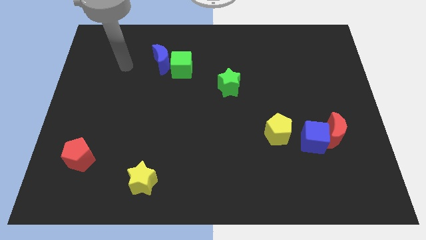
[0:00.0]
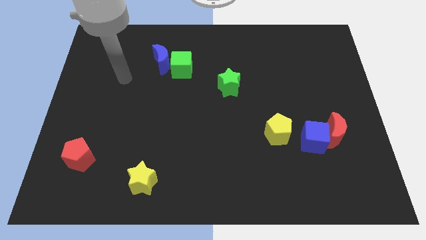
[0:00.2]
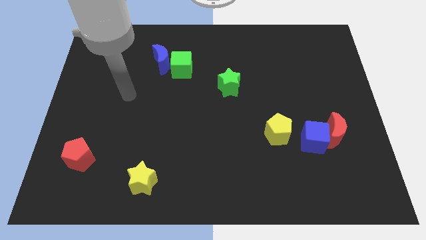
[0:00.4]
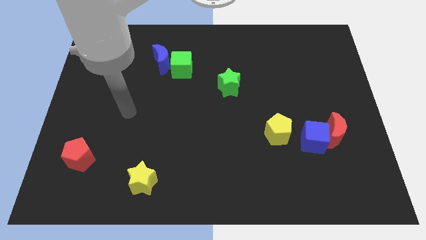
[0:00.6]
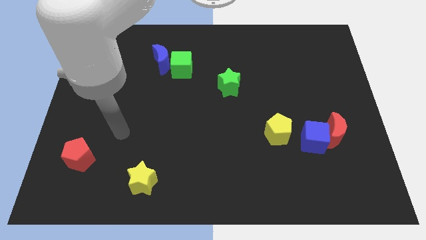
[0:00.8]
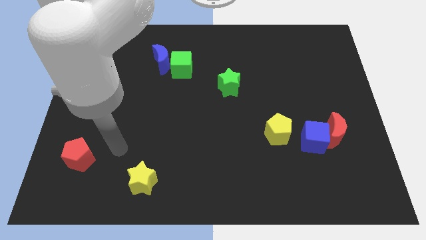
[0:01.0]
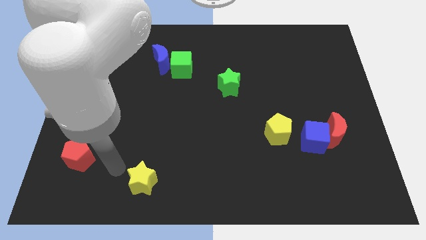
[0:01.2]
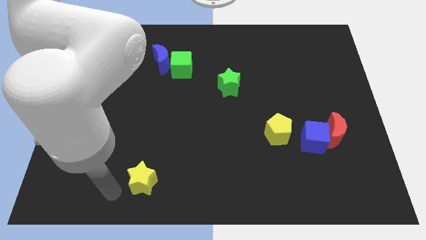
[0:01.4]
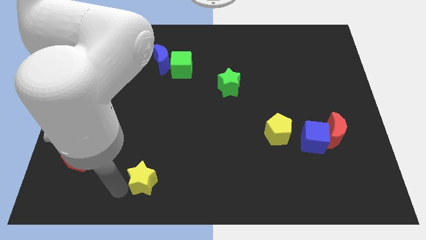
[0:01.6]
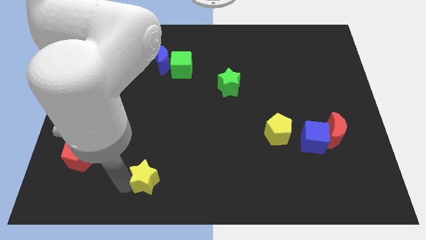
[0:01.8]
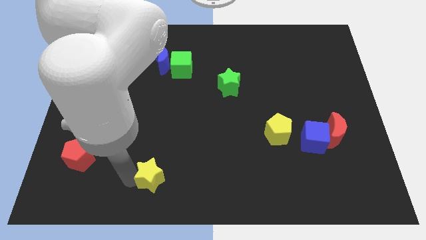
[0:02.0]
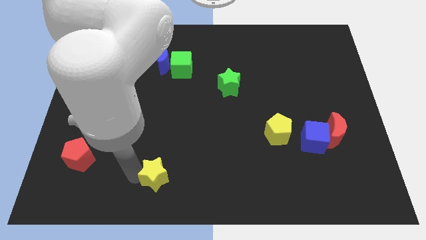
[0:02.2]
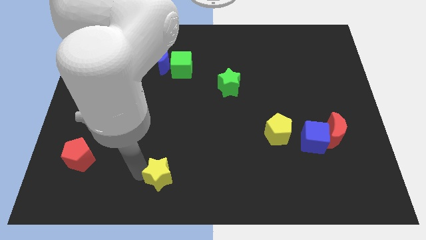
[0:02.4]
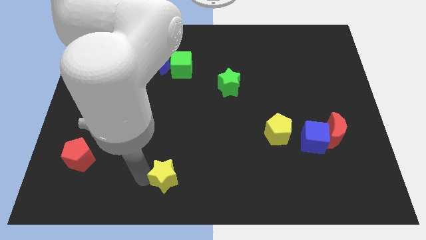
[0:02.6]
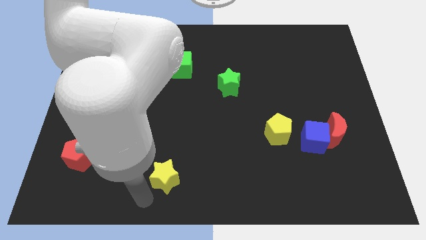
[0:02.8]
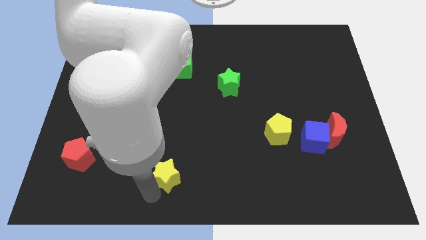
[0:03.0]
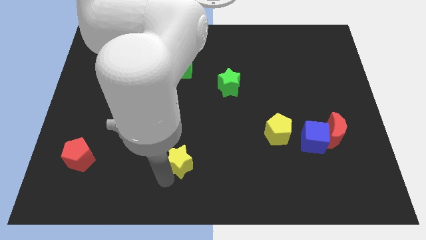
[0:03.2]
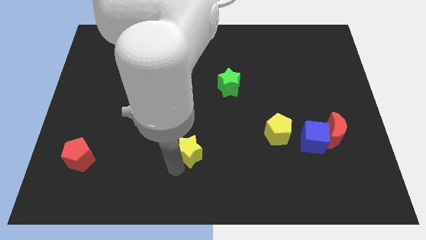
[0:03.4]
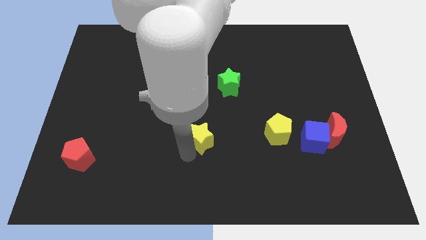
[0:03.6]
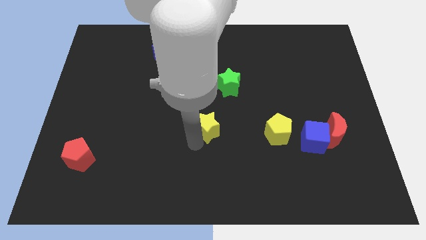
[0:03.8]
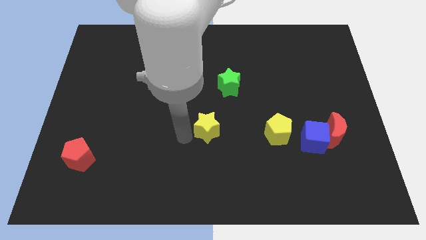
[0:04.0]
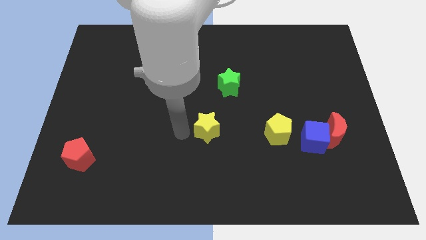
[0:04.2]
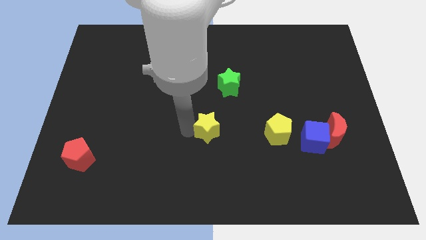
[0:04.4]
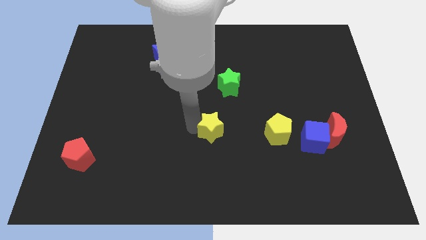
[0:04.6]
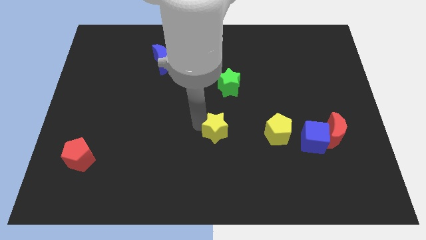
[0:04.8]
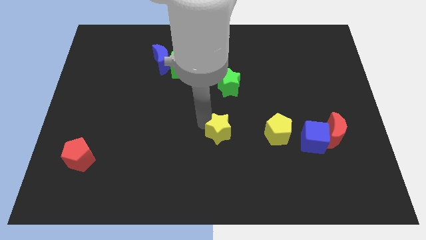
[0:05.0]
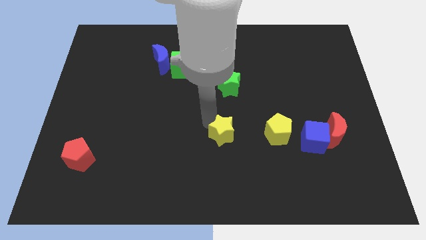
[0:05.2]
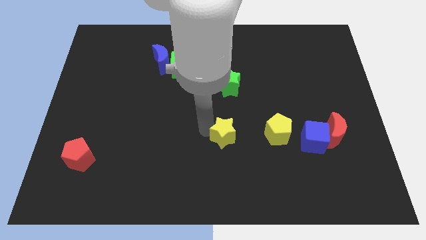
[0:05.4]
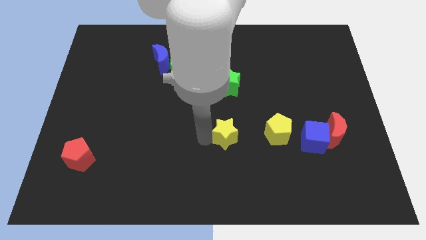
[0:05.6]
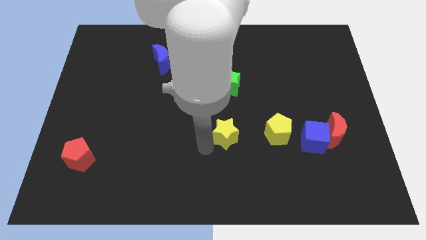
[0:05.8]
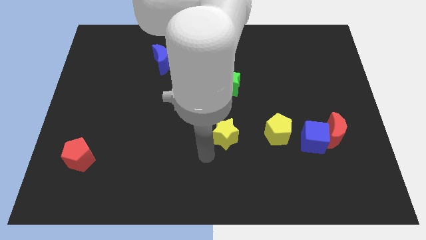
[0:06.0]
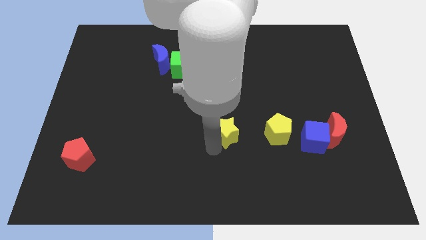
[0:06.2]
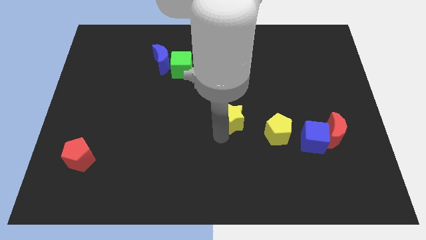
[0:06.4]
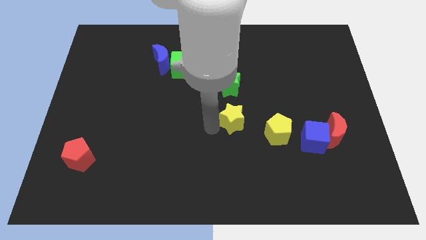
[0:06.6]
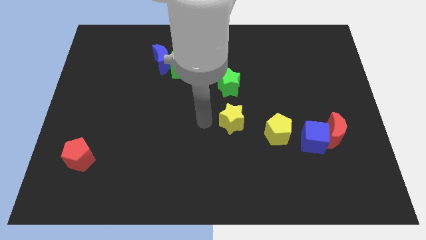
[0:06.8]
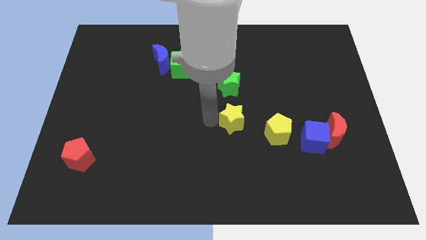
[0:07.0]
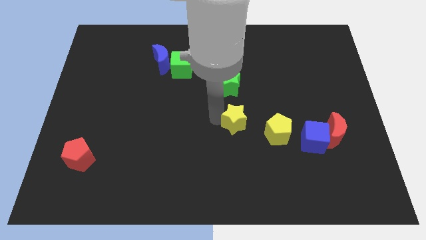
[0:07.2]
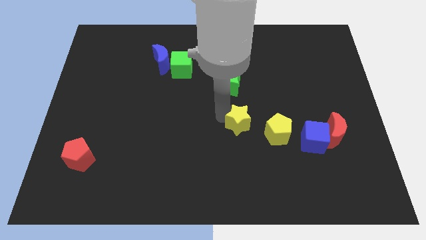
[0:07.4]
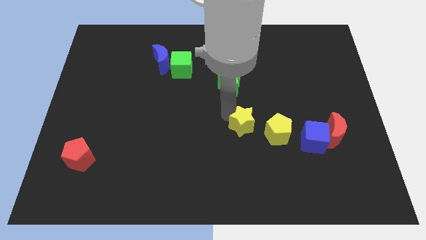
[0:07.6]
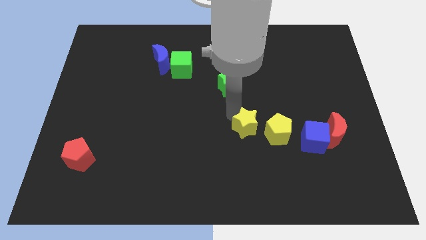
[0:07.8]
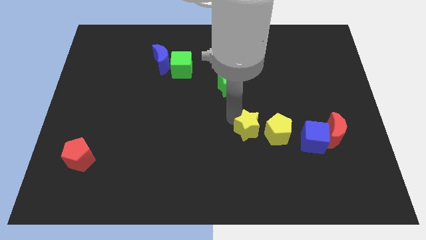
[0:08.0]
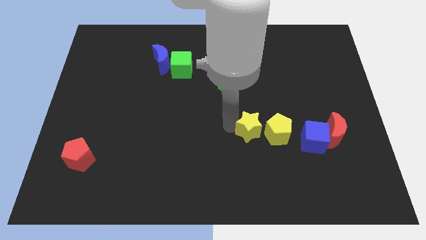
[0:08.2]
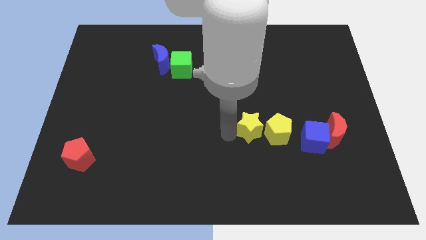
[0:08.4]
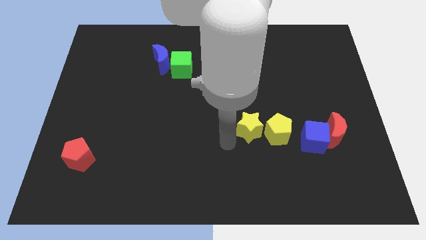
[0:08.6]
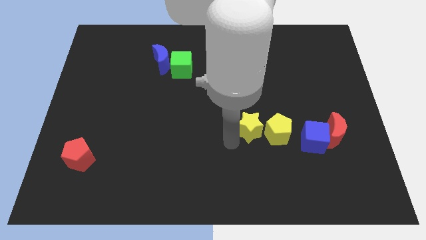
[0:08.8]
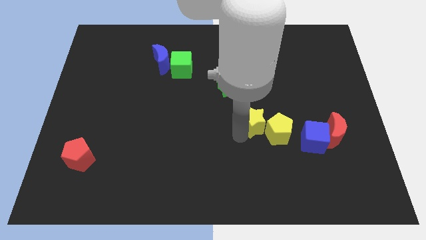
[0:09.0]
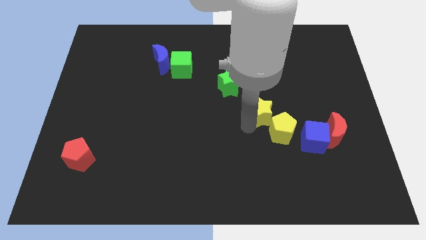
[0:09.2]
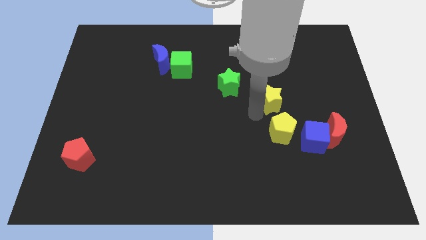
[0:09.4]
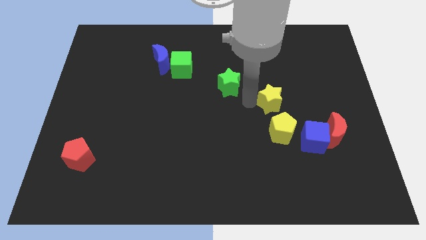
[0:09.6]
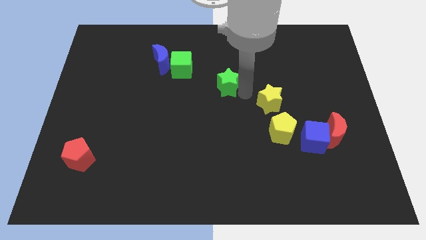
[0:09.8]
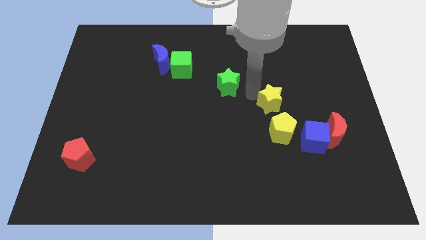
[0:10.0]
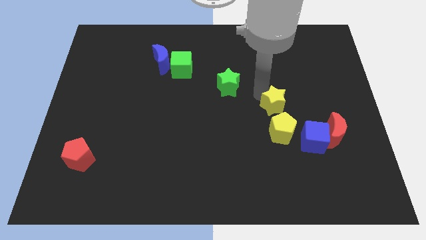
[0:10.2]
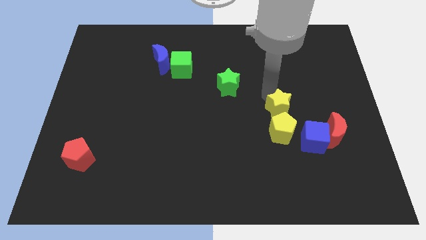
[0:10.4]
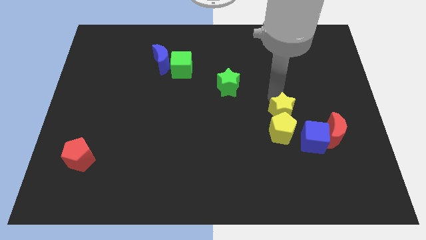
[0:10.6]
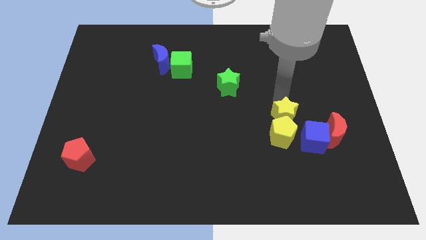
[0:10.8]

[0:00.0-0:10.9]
put the yellow star to the top left of the red moon

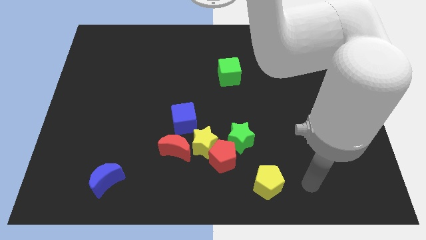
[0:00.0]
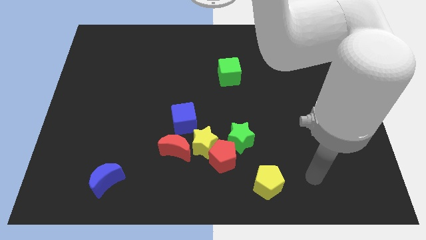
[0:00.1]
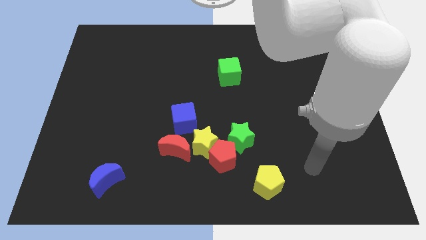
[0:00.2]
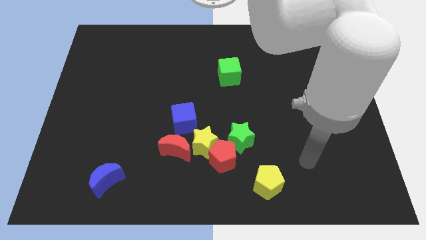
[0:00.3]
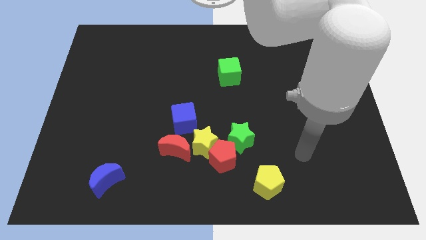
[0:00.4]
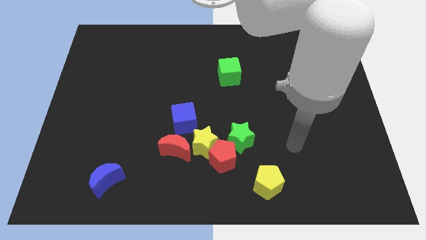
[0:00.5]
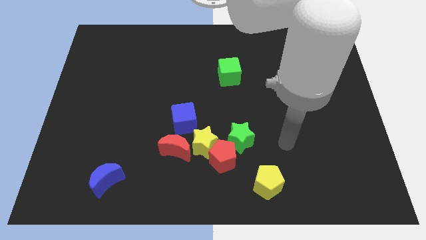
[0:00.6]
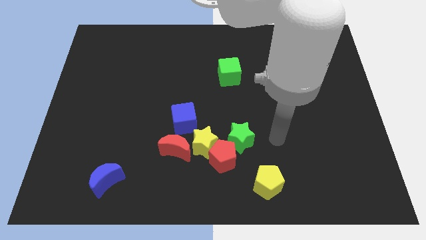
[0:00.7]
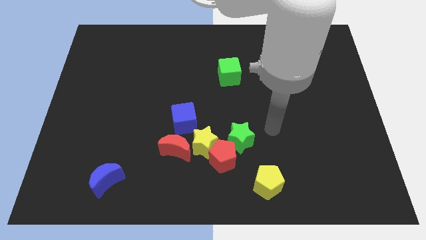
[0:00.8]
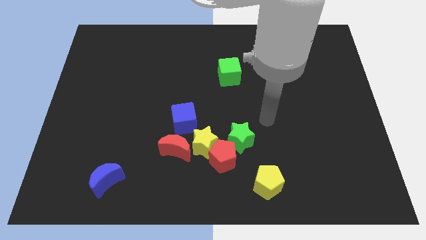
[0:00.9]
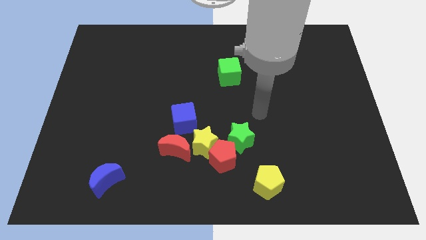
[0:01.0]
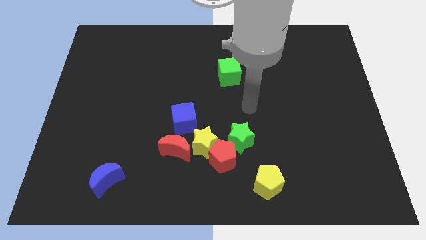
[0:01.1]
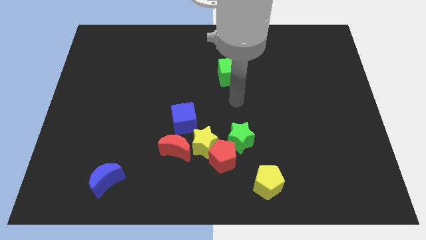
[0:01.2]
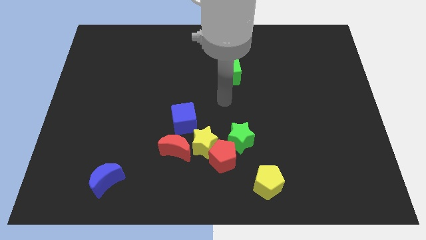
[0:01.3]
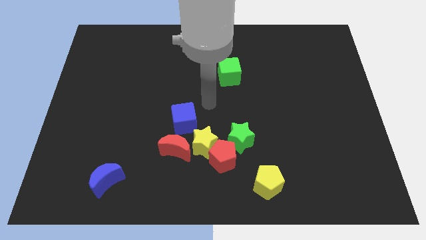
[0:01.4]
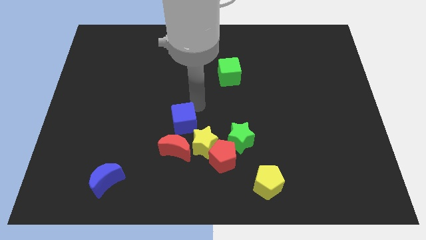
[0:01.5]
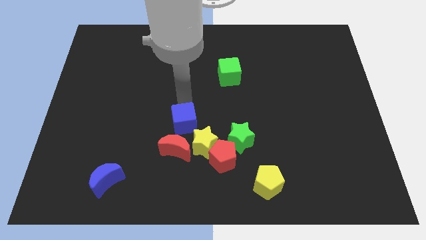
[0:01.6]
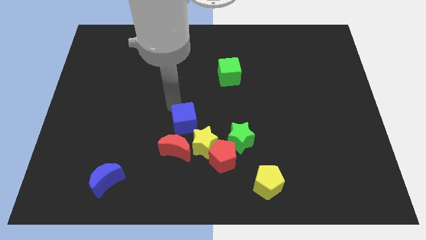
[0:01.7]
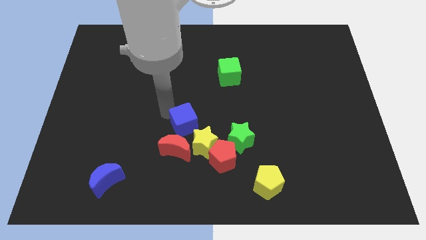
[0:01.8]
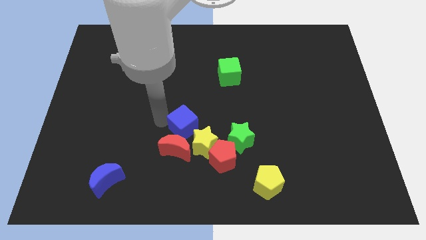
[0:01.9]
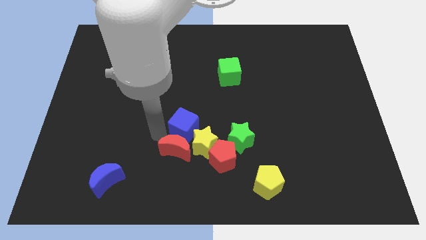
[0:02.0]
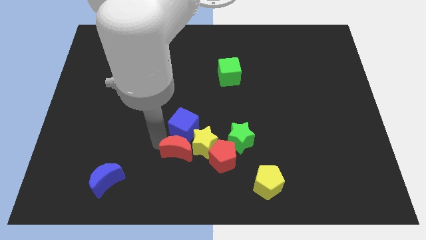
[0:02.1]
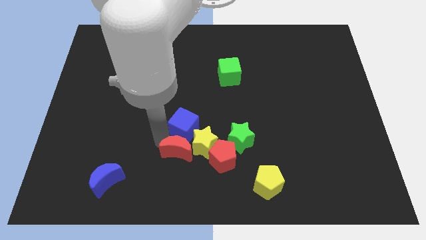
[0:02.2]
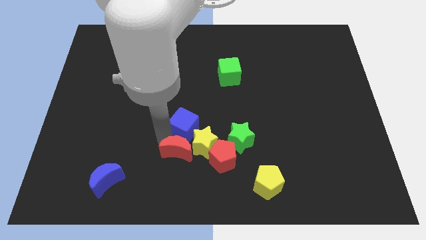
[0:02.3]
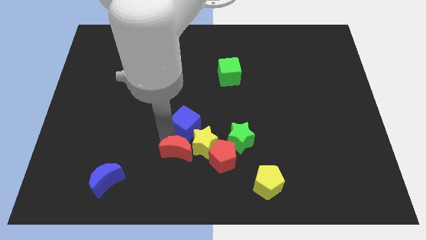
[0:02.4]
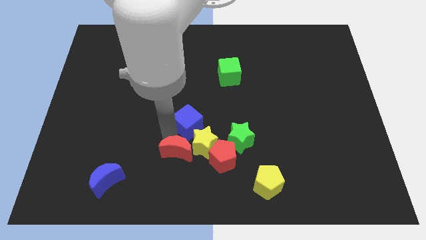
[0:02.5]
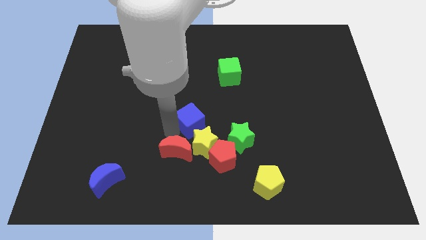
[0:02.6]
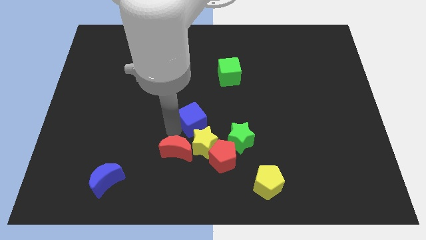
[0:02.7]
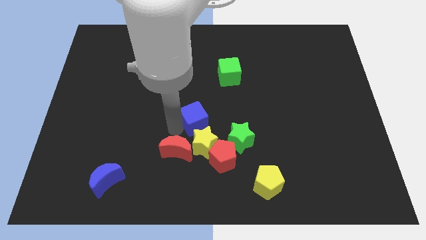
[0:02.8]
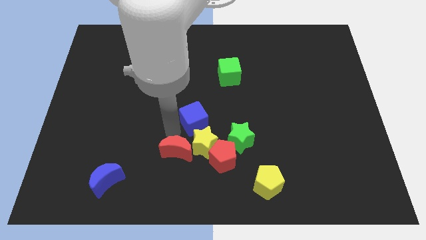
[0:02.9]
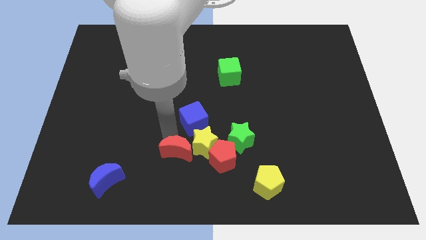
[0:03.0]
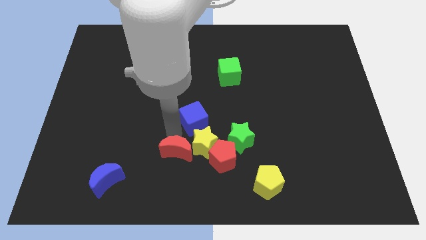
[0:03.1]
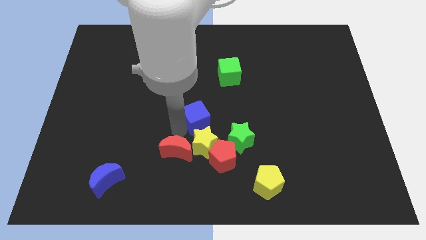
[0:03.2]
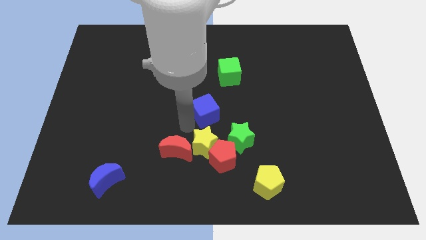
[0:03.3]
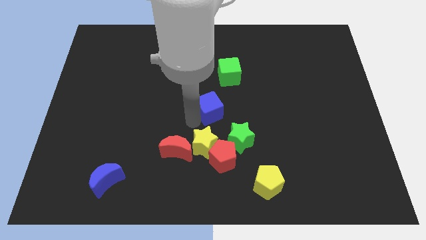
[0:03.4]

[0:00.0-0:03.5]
move the blue cube to the bottom of the green cube
